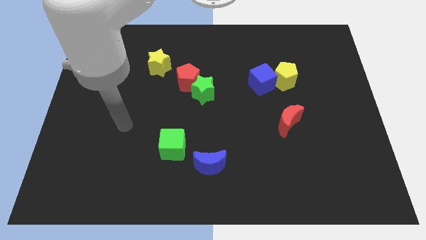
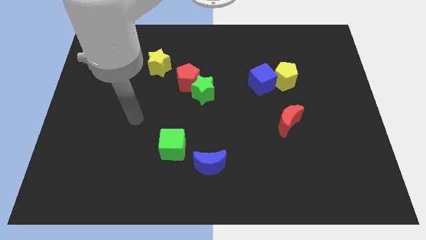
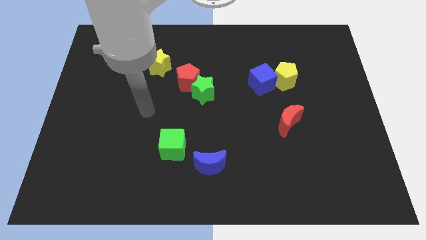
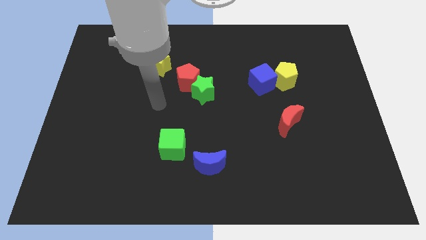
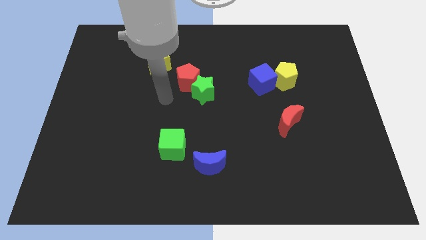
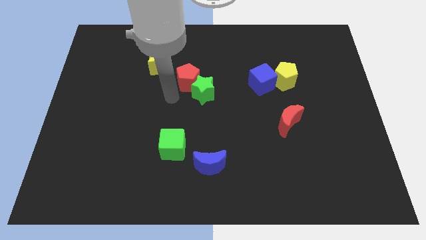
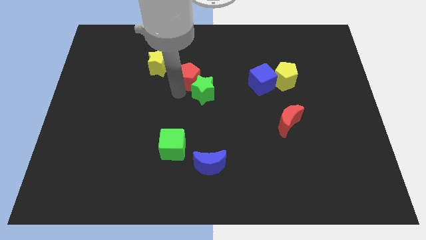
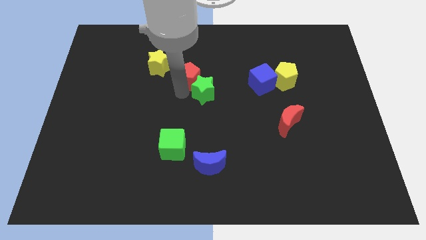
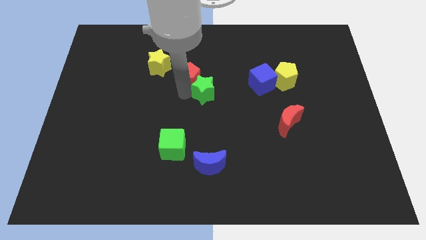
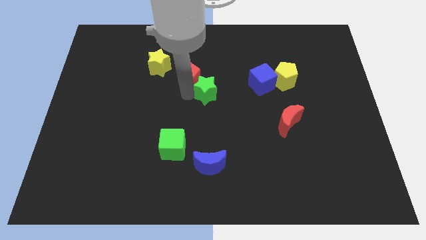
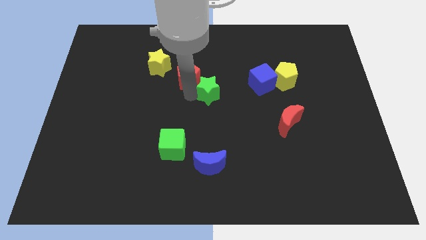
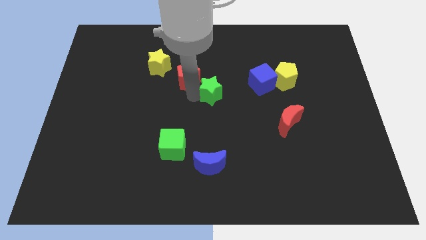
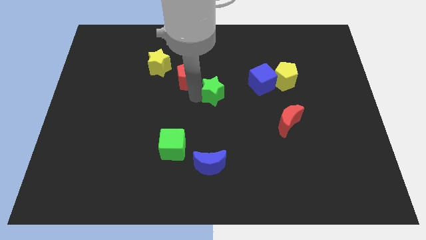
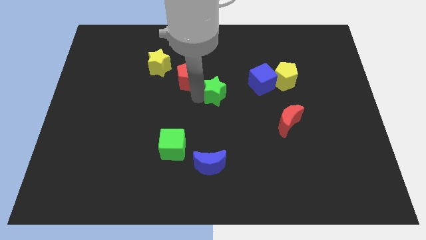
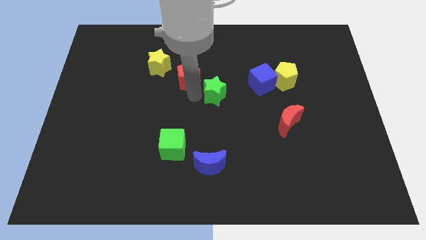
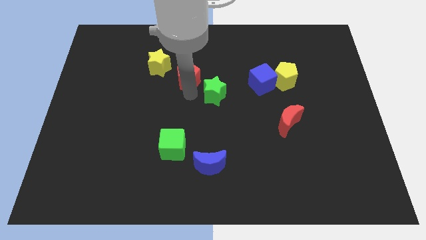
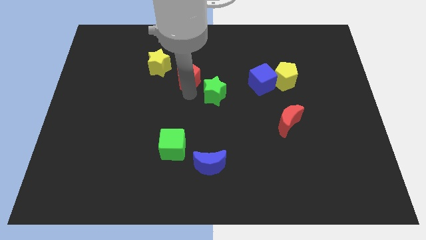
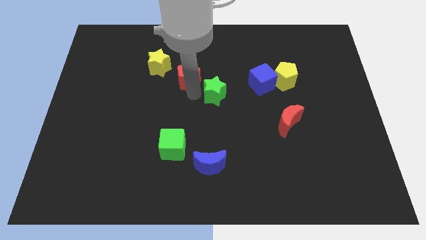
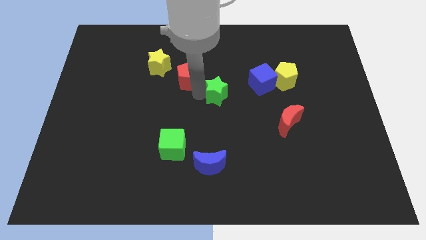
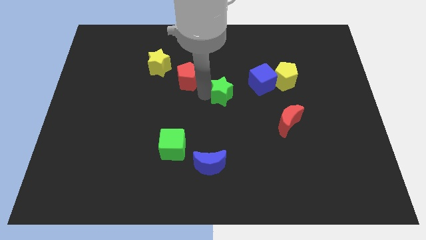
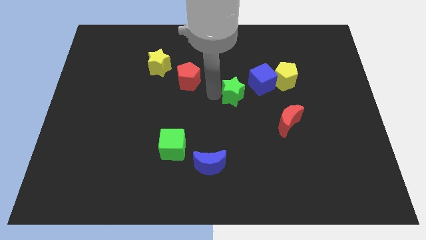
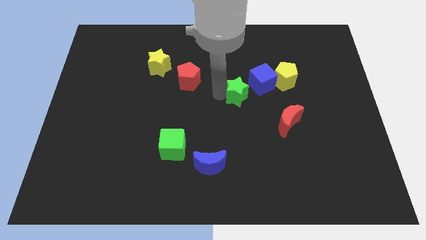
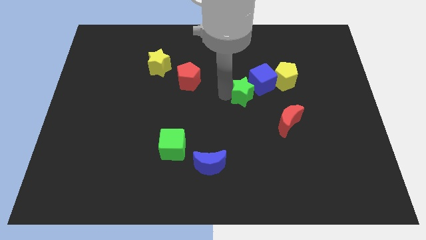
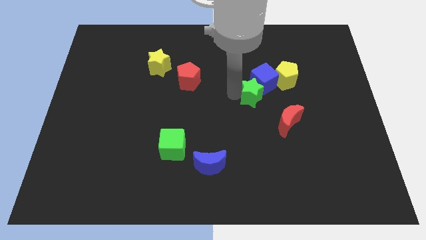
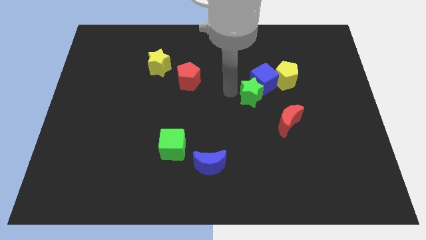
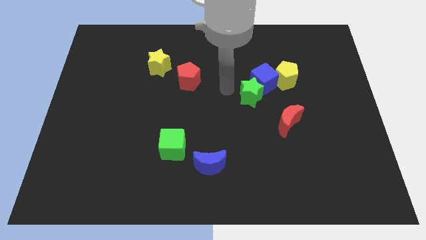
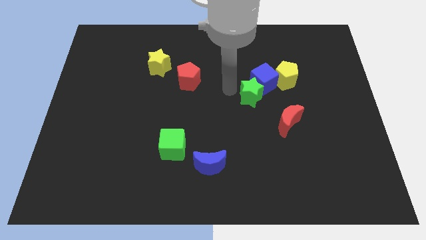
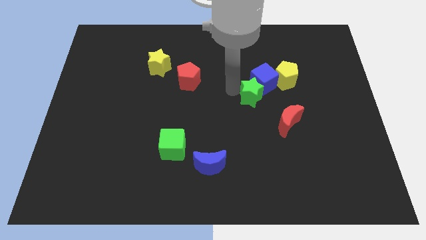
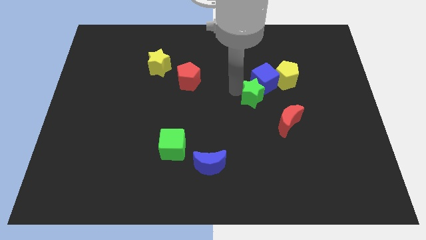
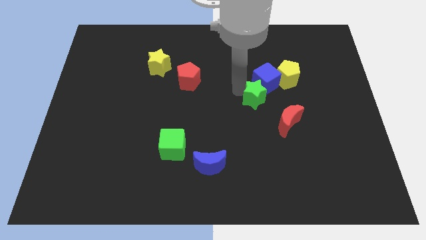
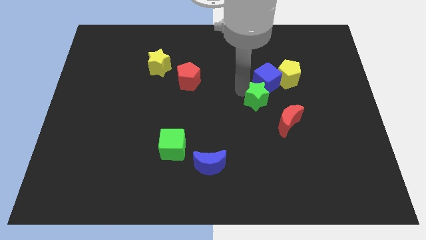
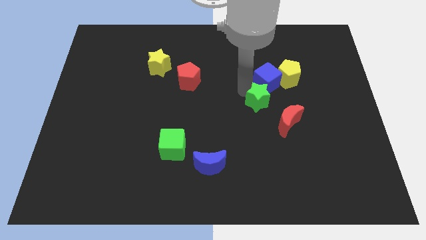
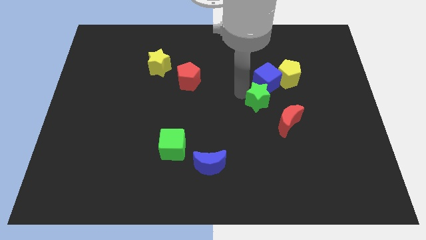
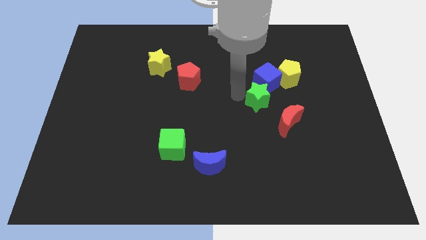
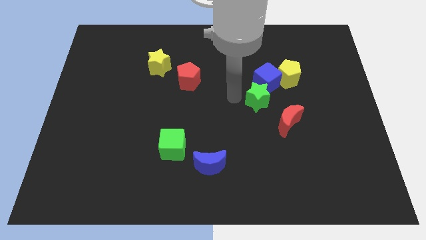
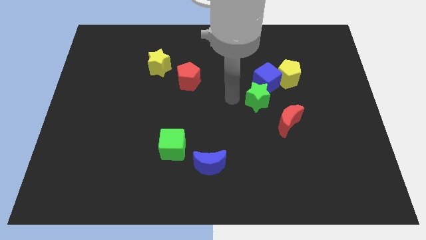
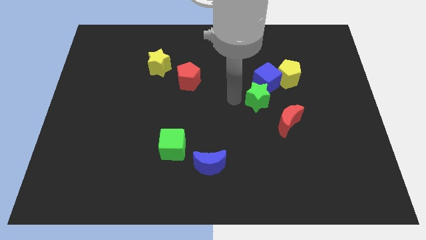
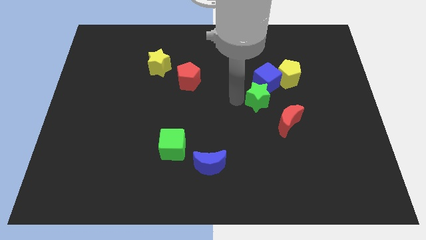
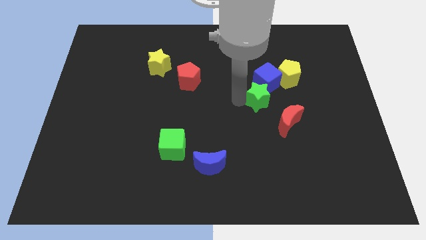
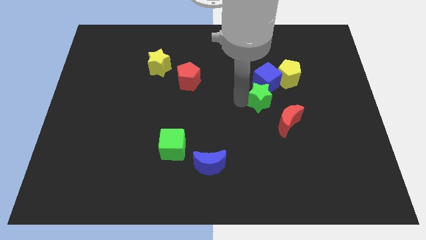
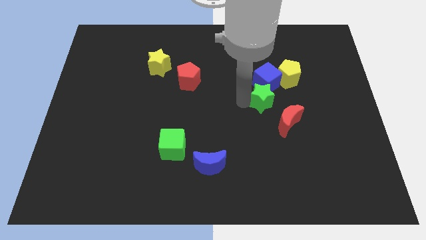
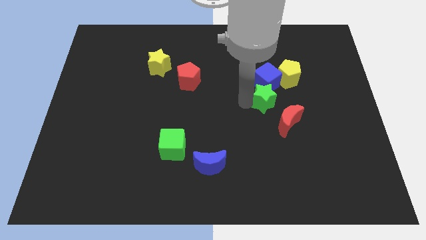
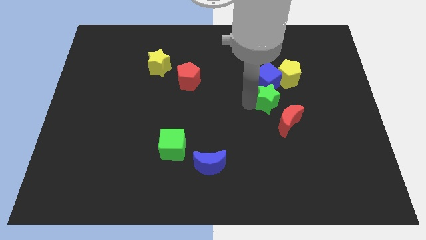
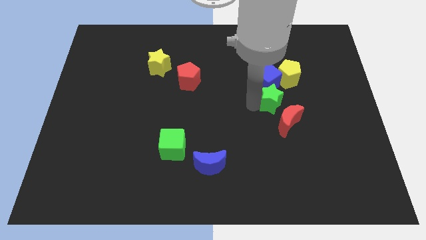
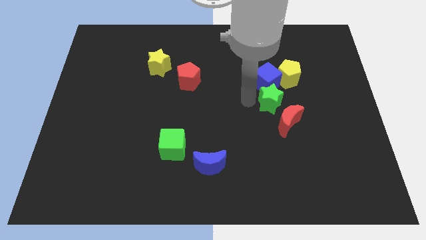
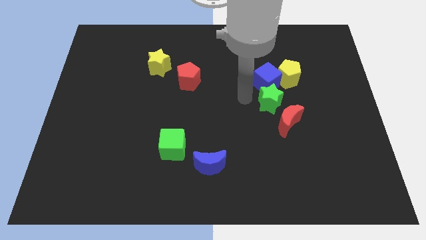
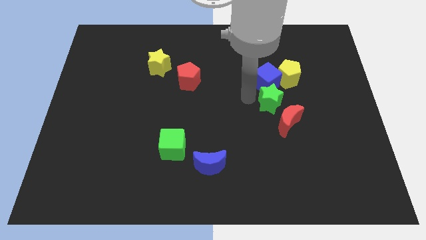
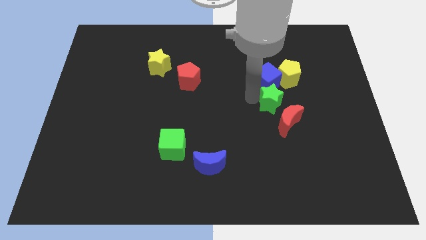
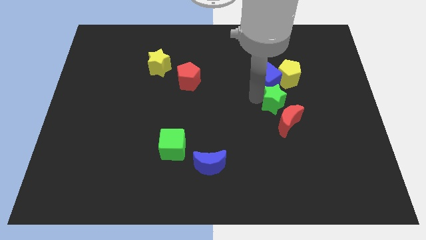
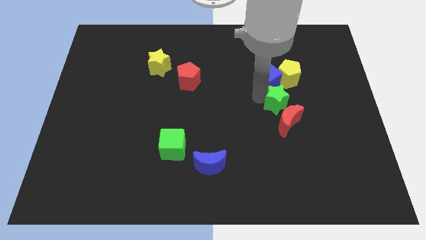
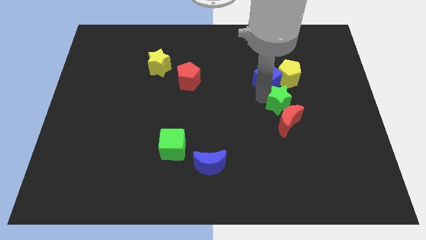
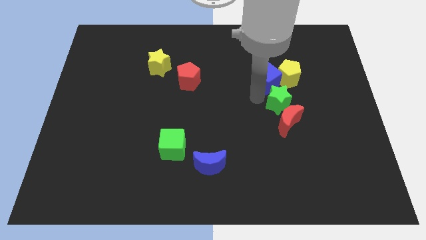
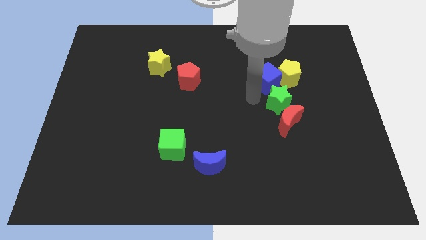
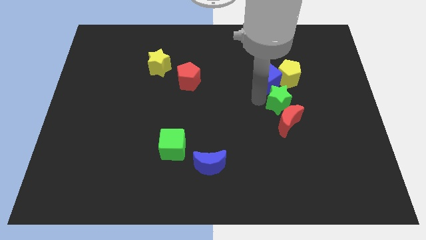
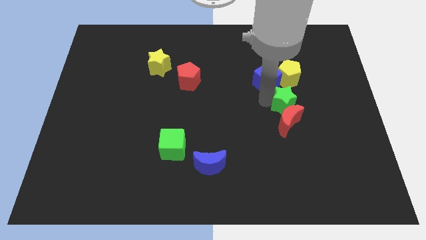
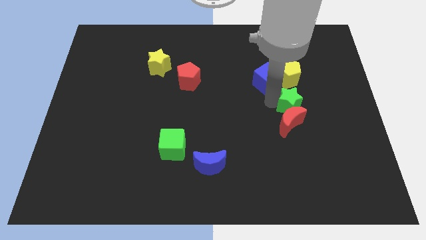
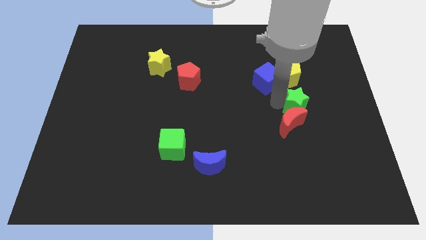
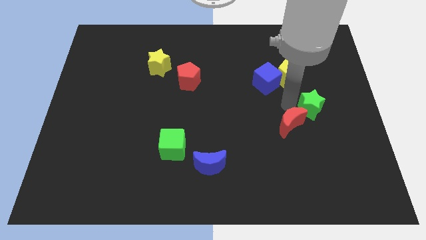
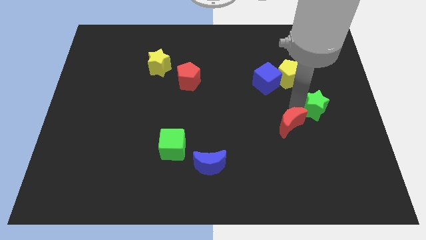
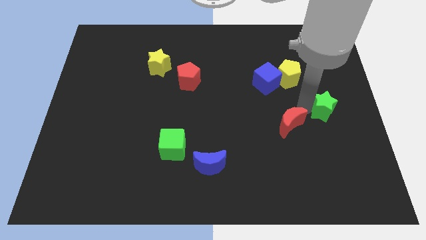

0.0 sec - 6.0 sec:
push the green star to the right side of the board
